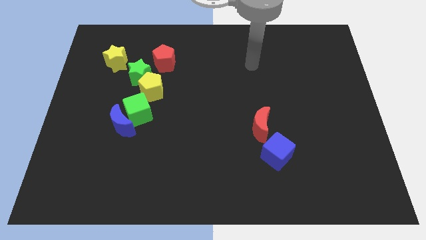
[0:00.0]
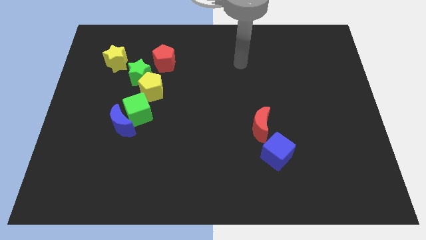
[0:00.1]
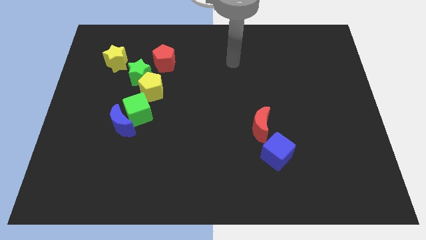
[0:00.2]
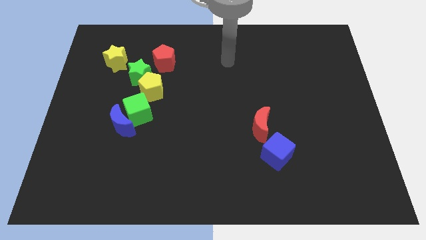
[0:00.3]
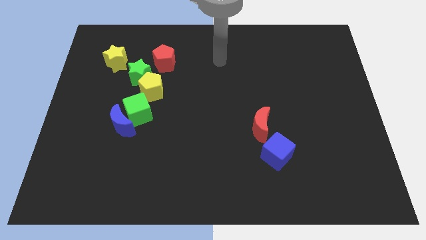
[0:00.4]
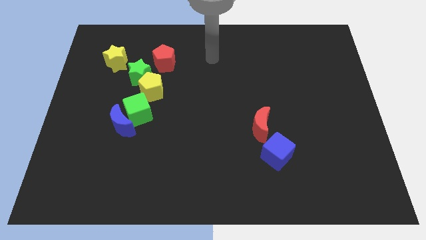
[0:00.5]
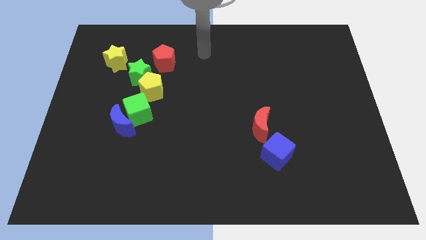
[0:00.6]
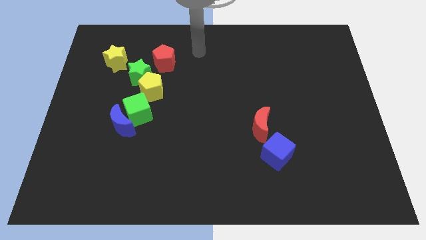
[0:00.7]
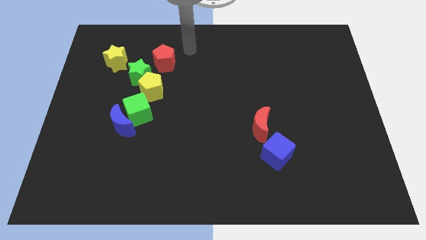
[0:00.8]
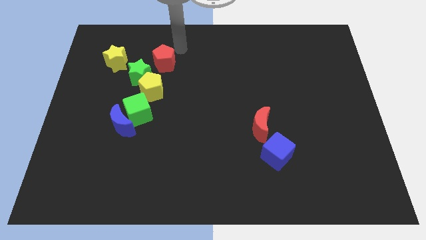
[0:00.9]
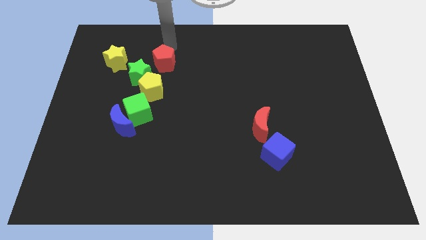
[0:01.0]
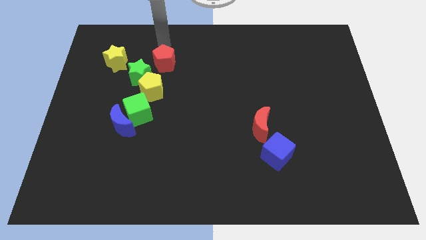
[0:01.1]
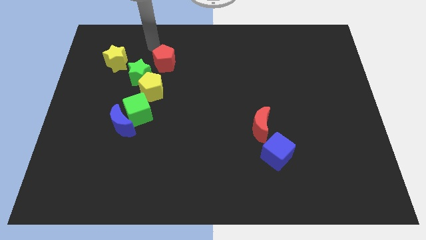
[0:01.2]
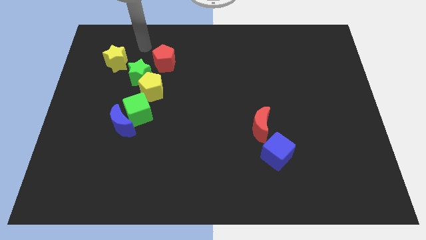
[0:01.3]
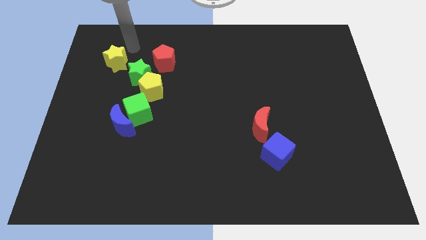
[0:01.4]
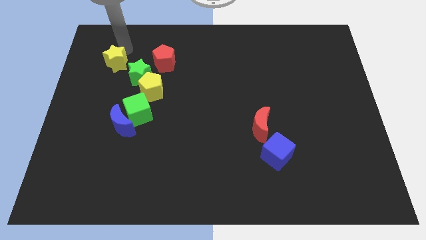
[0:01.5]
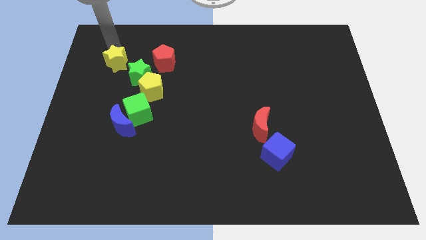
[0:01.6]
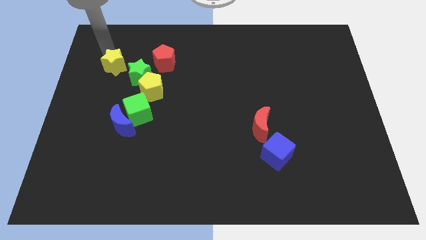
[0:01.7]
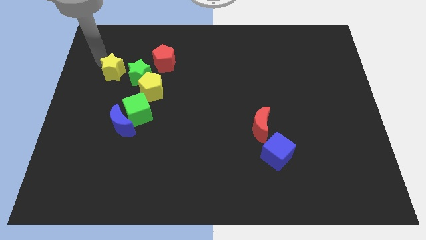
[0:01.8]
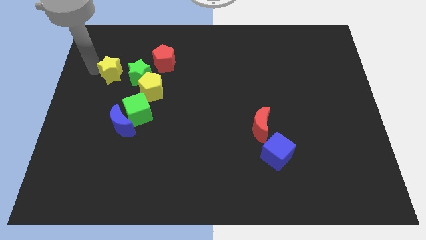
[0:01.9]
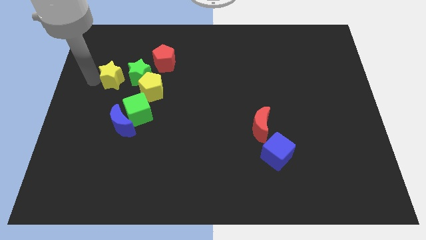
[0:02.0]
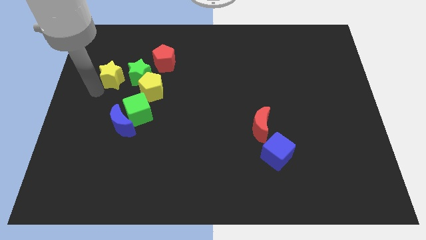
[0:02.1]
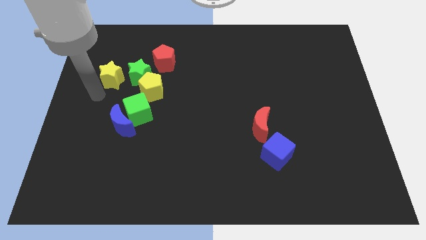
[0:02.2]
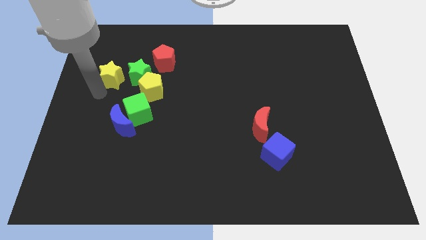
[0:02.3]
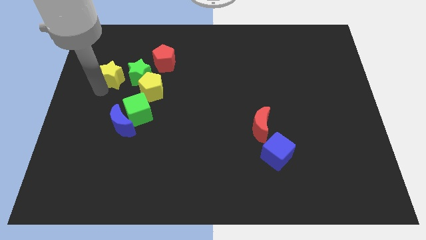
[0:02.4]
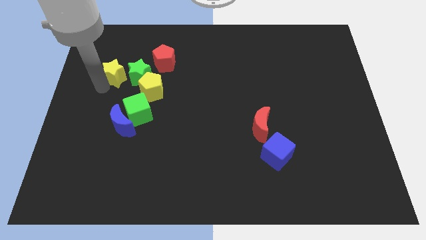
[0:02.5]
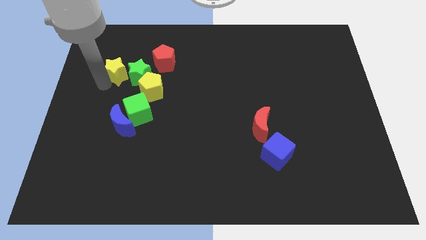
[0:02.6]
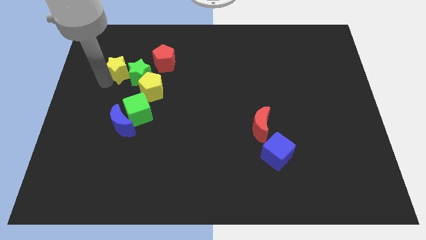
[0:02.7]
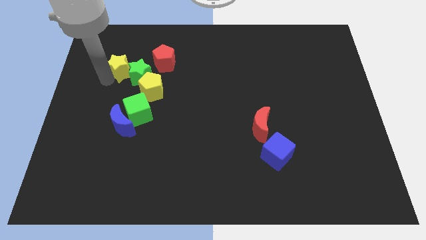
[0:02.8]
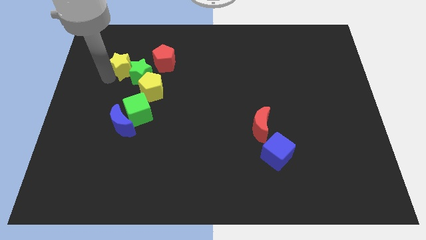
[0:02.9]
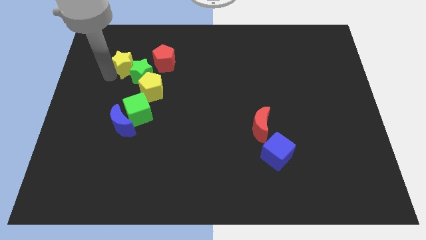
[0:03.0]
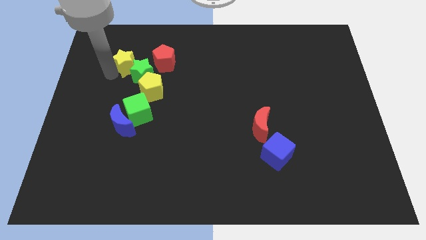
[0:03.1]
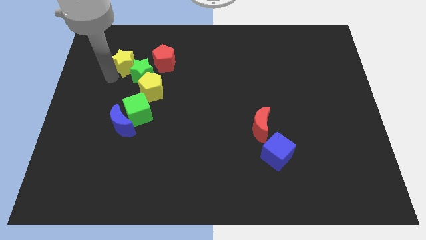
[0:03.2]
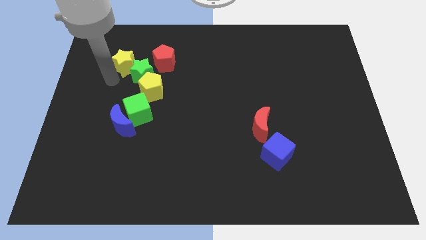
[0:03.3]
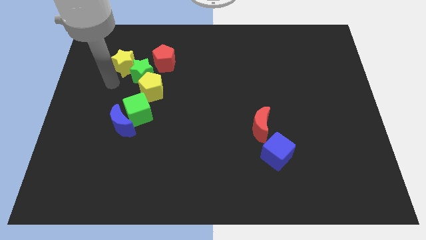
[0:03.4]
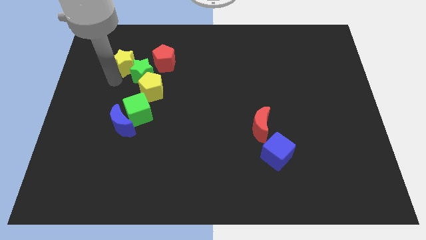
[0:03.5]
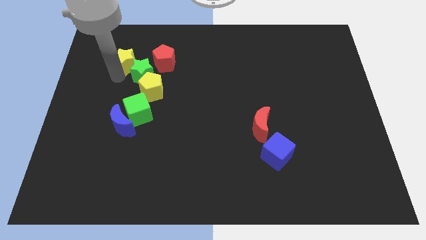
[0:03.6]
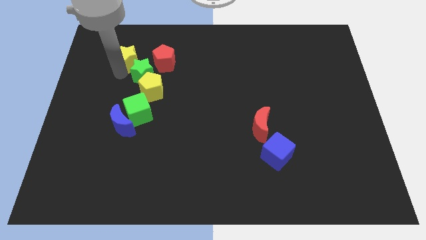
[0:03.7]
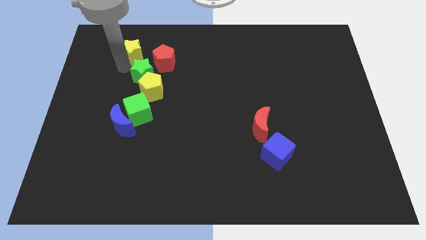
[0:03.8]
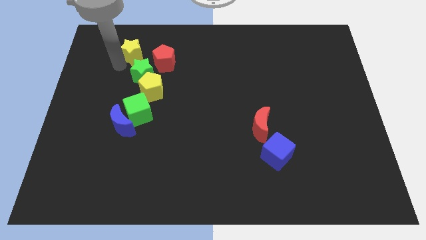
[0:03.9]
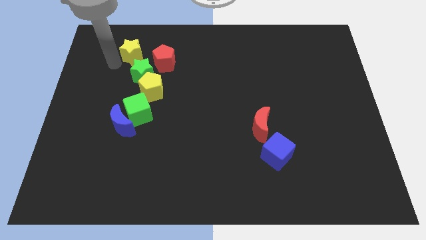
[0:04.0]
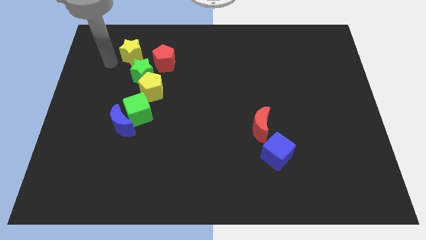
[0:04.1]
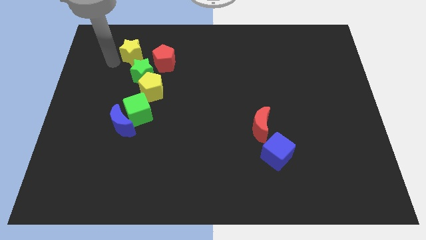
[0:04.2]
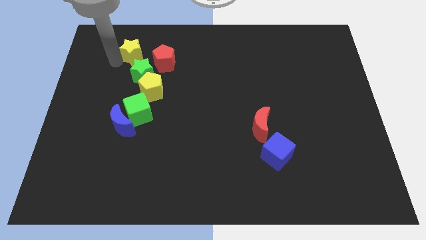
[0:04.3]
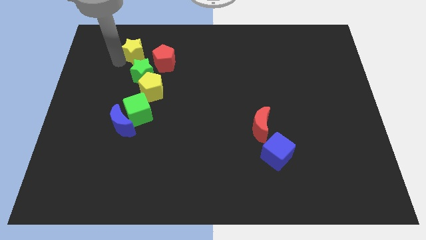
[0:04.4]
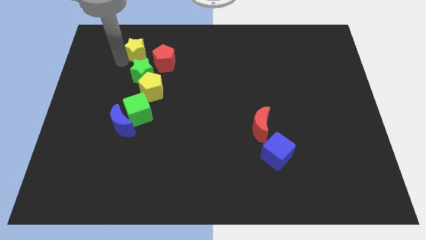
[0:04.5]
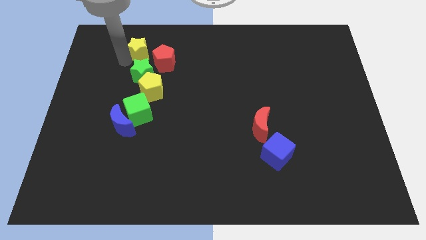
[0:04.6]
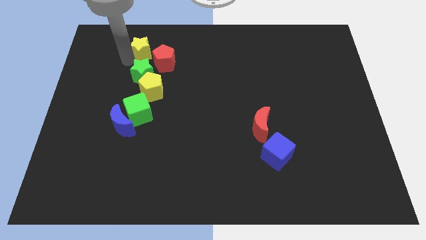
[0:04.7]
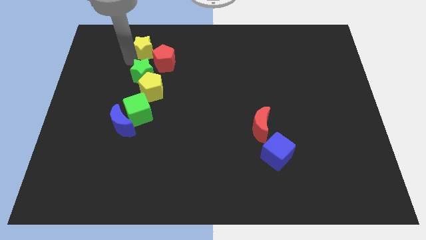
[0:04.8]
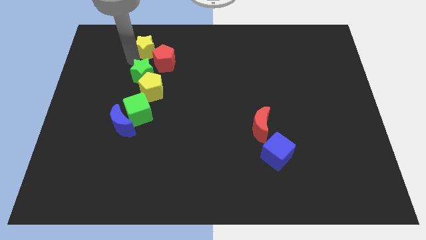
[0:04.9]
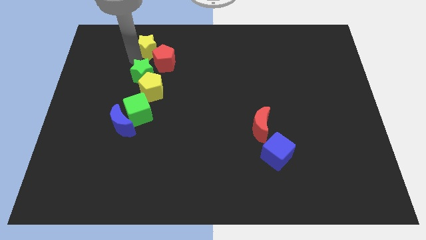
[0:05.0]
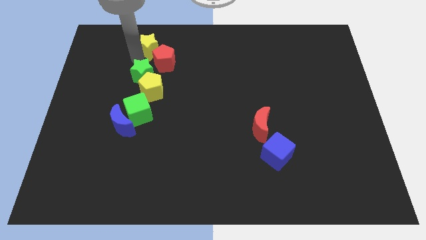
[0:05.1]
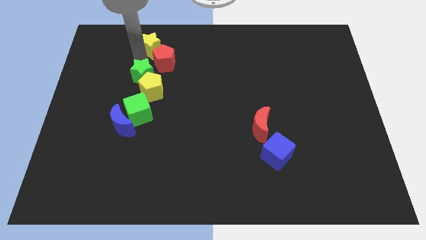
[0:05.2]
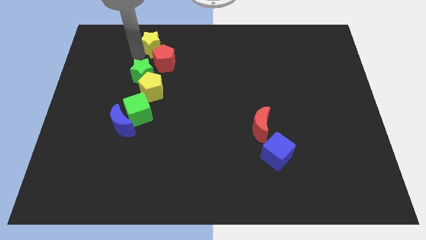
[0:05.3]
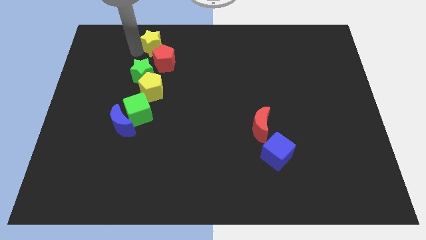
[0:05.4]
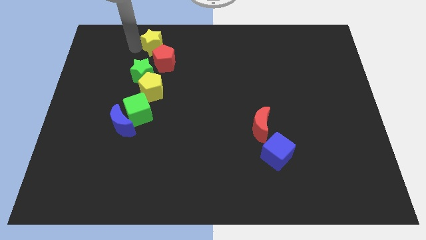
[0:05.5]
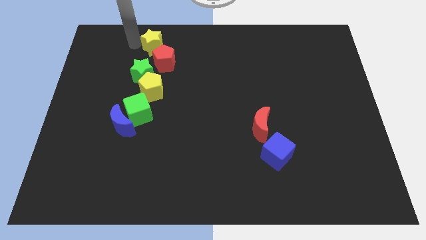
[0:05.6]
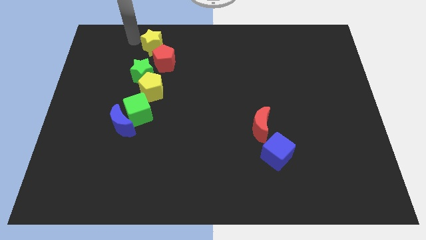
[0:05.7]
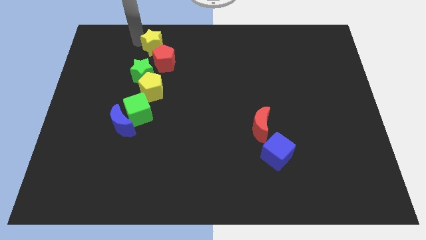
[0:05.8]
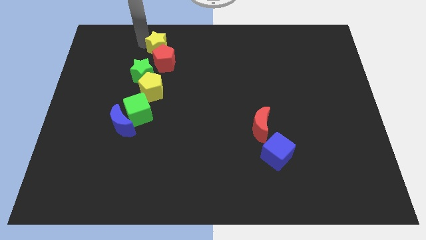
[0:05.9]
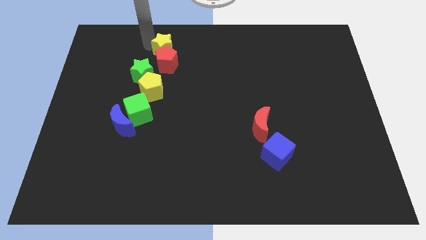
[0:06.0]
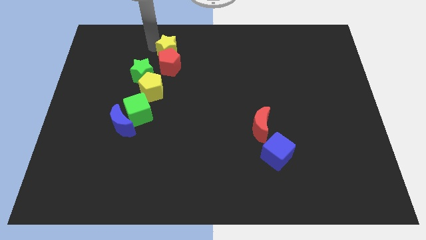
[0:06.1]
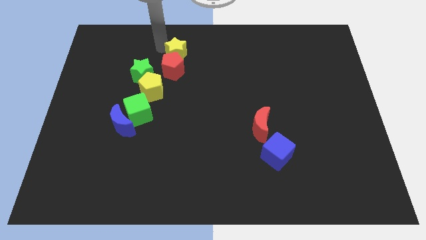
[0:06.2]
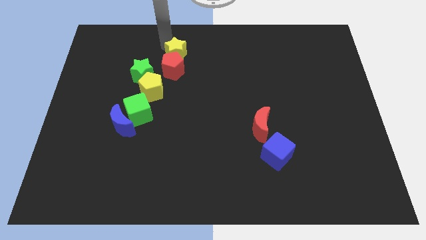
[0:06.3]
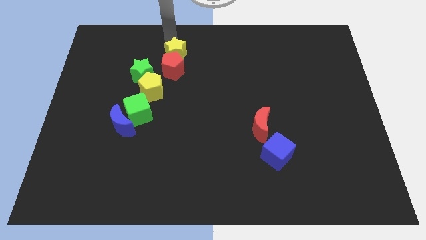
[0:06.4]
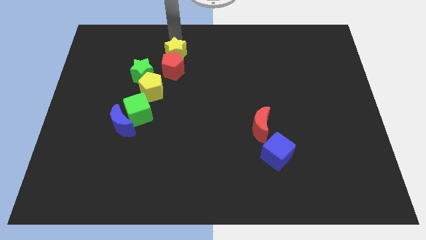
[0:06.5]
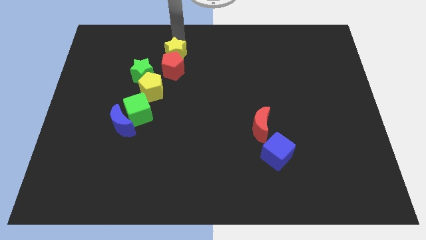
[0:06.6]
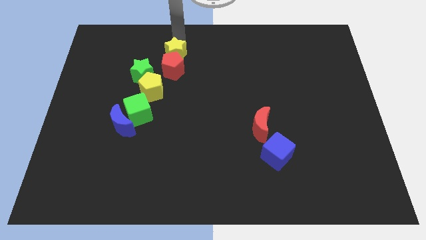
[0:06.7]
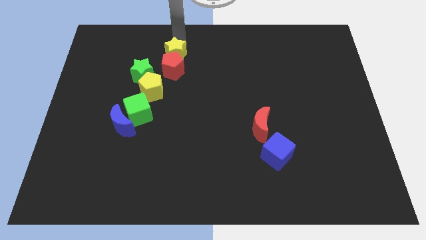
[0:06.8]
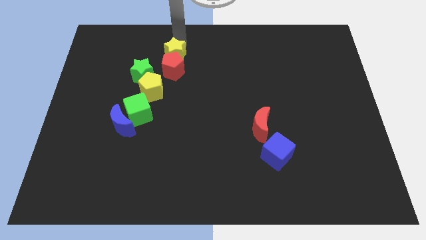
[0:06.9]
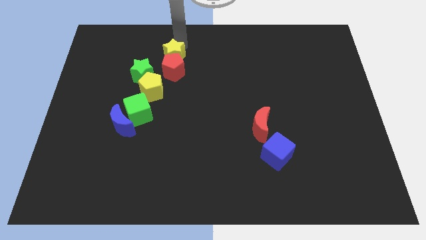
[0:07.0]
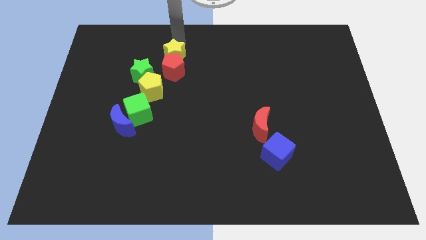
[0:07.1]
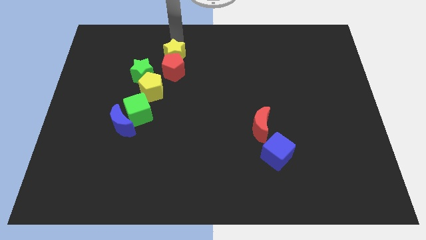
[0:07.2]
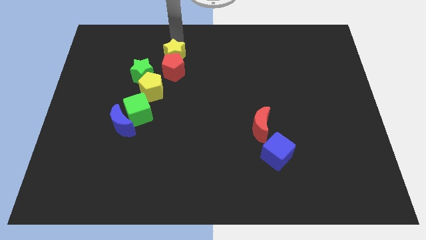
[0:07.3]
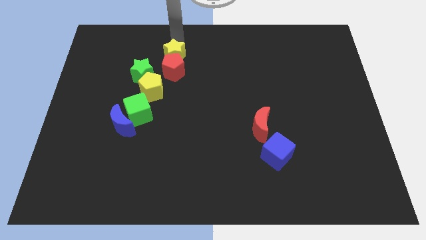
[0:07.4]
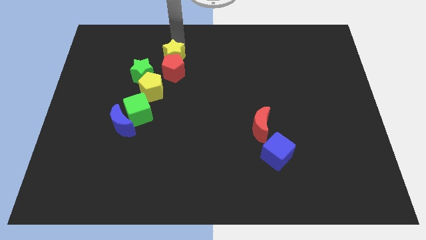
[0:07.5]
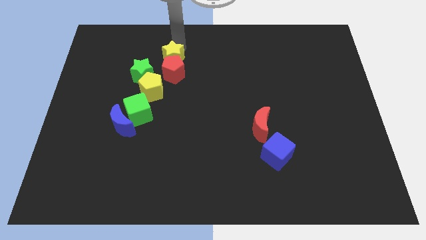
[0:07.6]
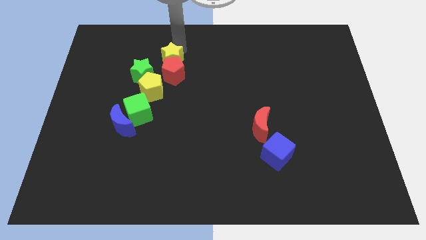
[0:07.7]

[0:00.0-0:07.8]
slide the yellow star diagonally up and to the right of the yellow pentagon
